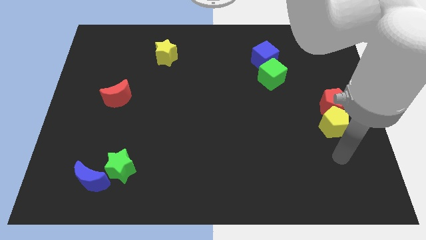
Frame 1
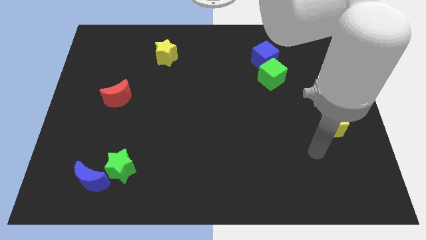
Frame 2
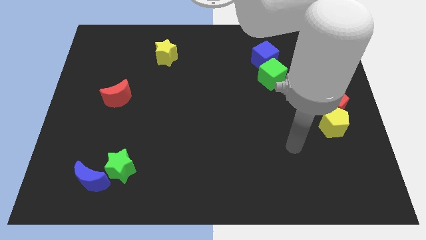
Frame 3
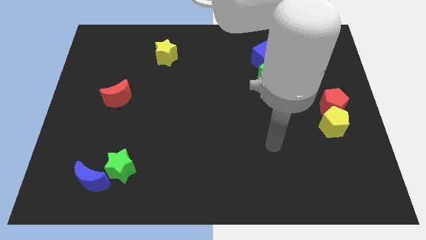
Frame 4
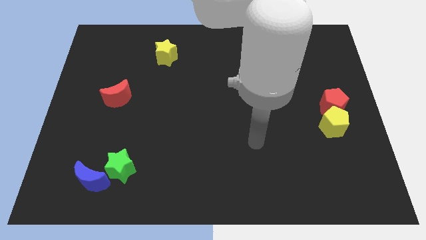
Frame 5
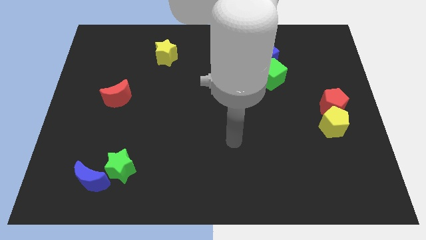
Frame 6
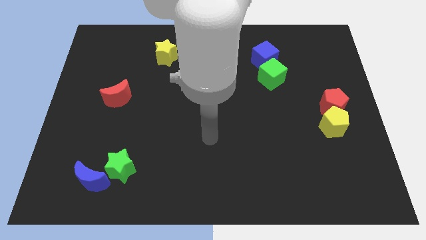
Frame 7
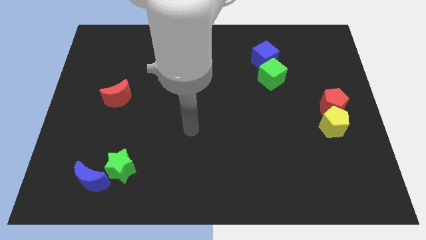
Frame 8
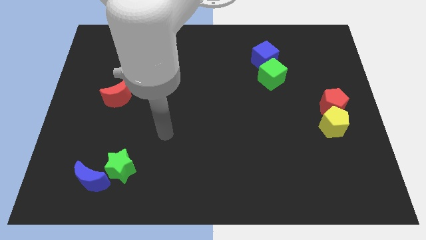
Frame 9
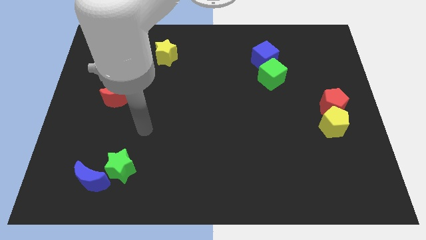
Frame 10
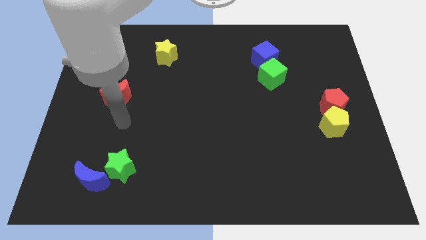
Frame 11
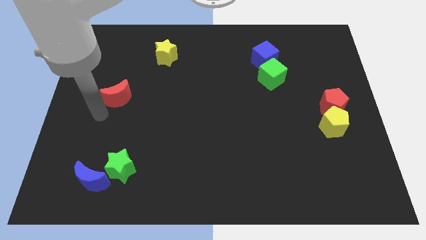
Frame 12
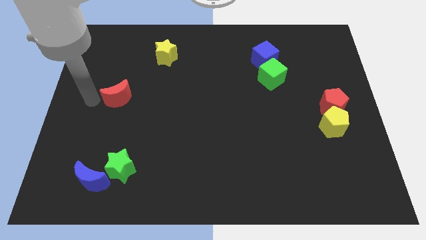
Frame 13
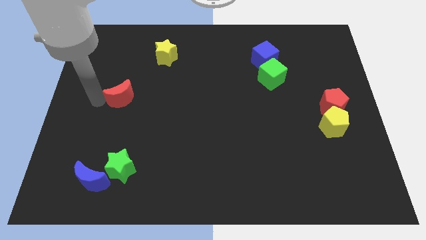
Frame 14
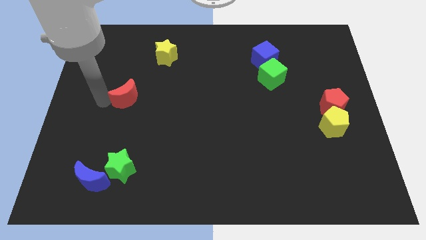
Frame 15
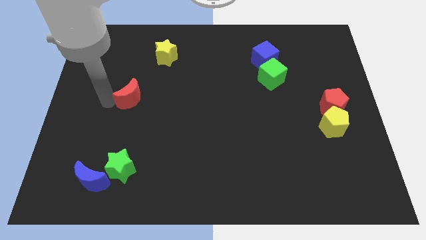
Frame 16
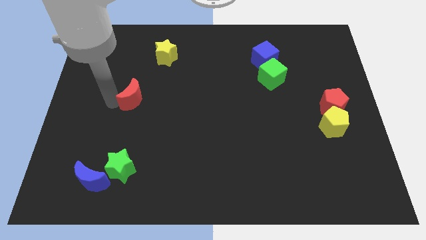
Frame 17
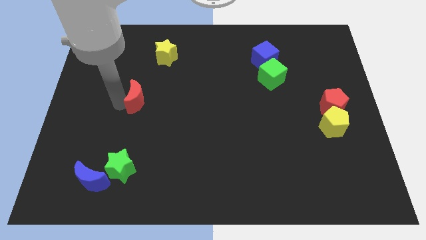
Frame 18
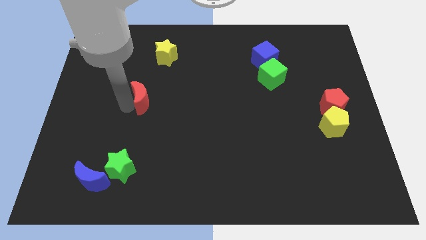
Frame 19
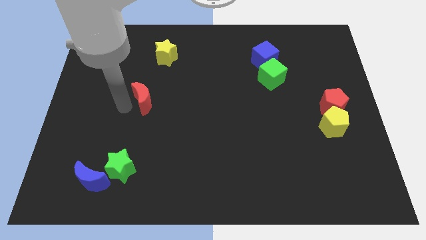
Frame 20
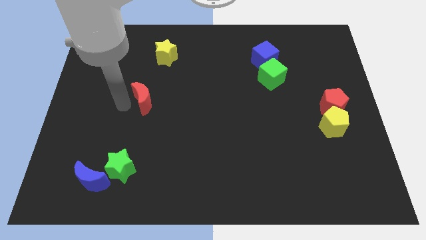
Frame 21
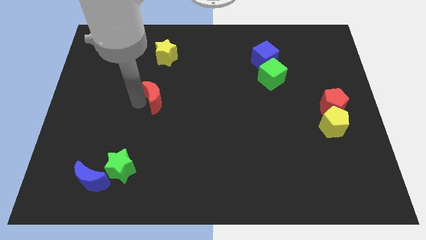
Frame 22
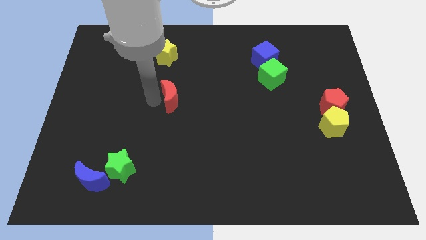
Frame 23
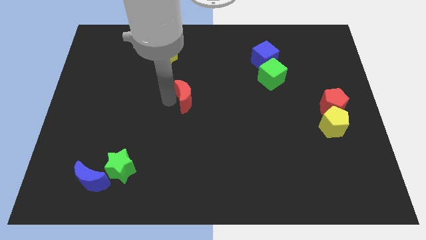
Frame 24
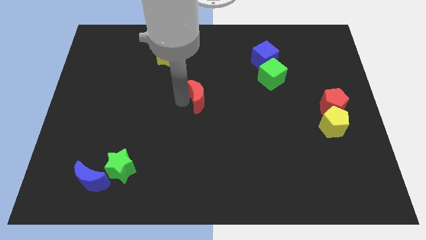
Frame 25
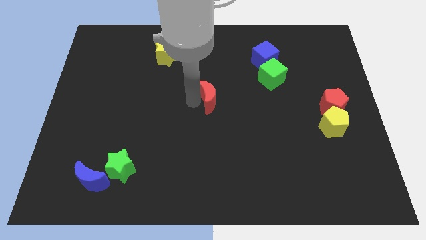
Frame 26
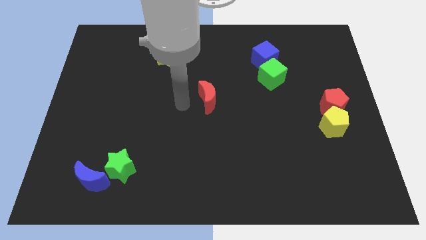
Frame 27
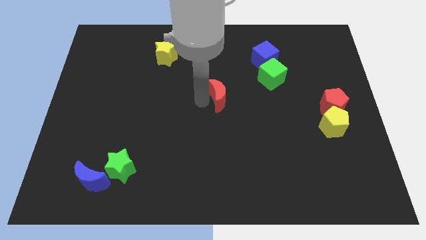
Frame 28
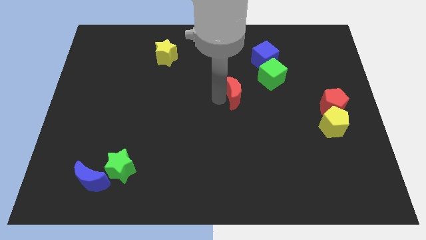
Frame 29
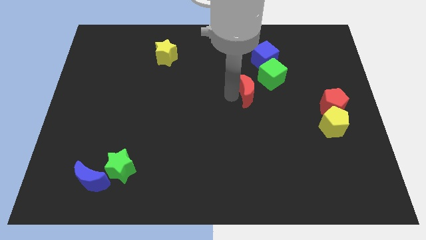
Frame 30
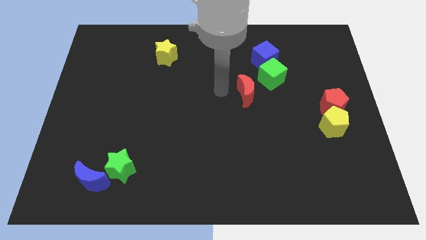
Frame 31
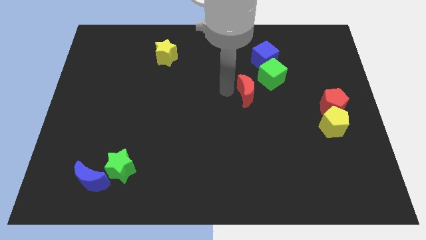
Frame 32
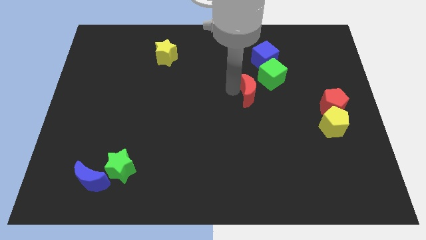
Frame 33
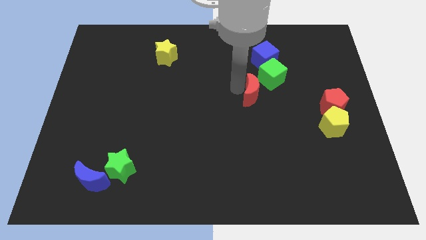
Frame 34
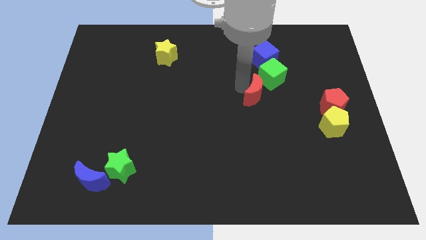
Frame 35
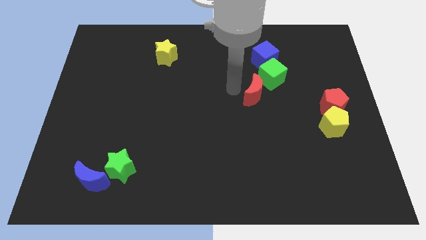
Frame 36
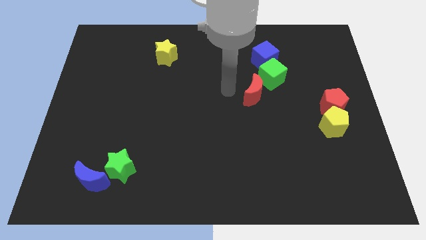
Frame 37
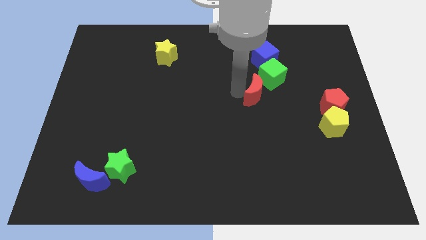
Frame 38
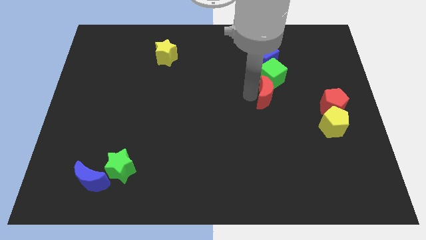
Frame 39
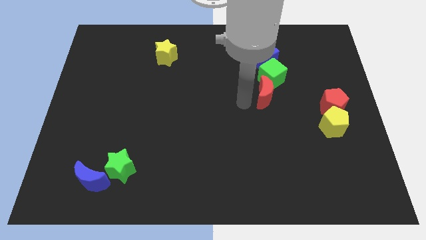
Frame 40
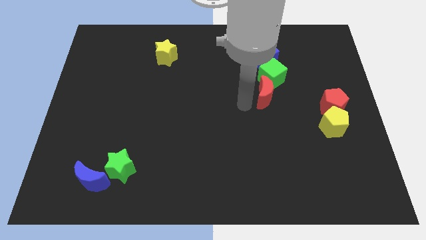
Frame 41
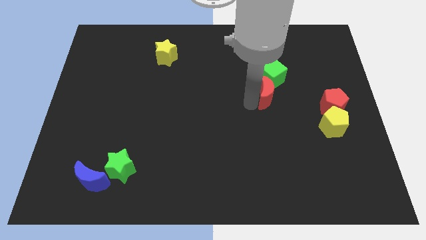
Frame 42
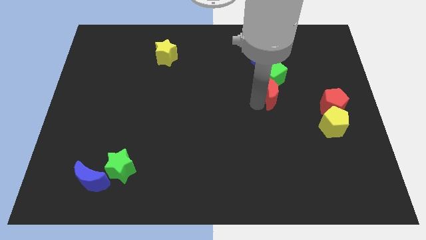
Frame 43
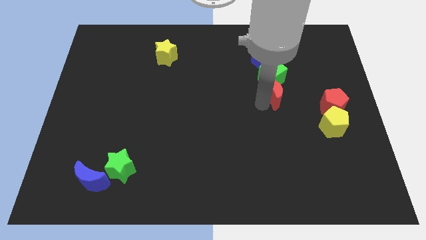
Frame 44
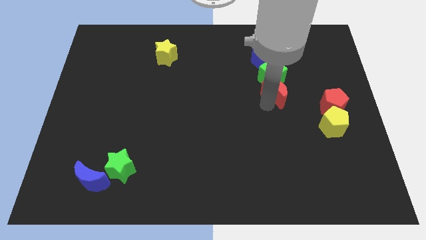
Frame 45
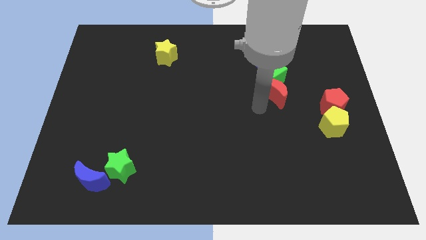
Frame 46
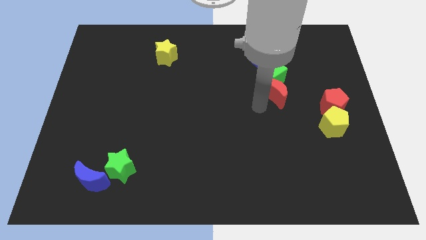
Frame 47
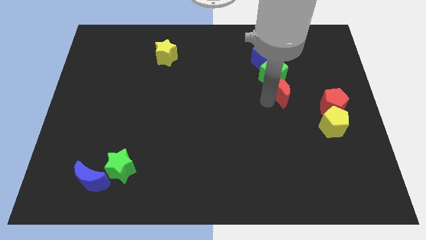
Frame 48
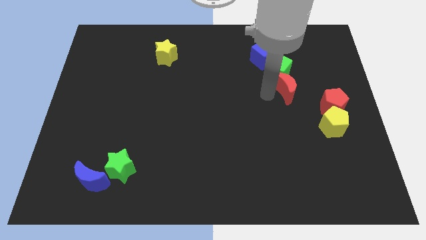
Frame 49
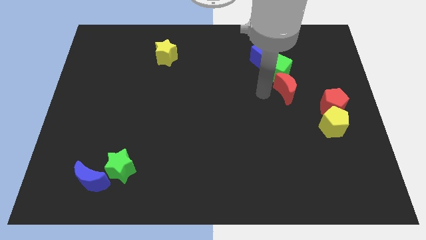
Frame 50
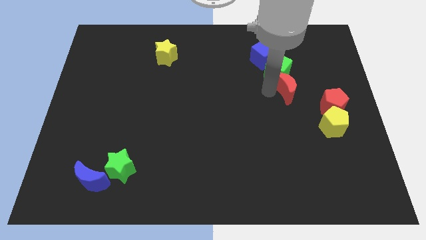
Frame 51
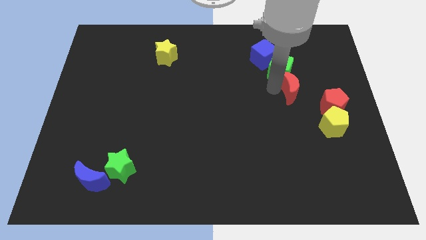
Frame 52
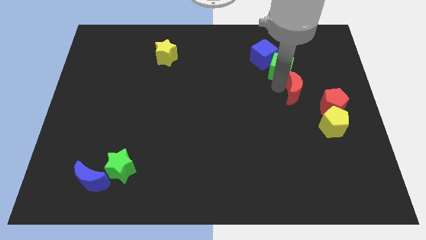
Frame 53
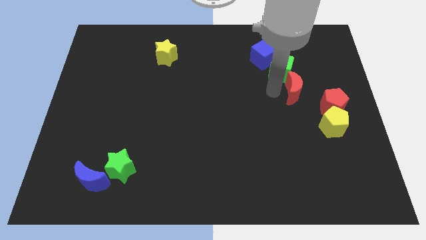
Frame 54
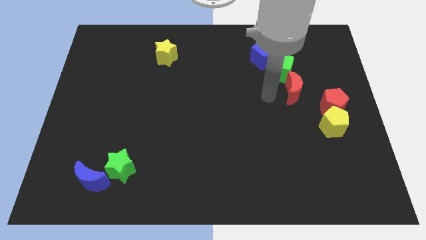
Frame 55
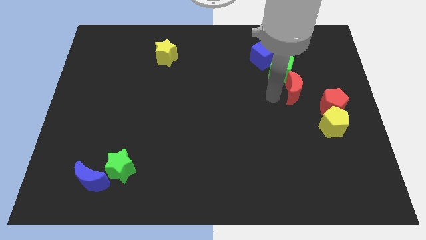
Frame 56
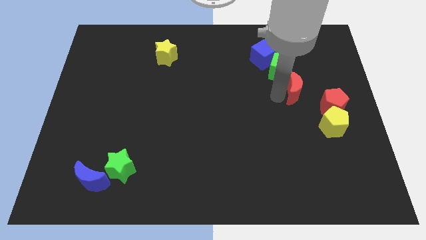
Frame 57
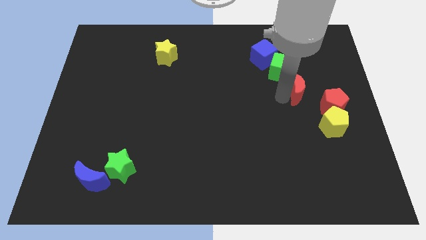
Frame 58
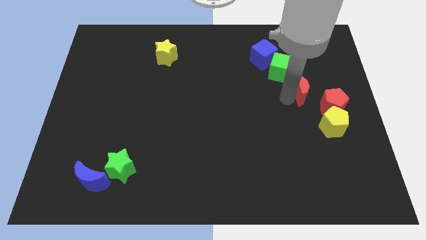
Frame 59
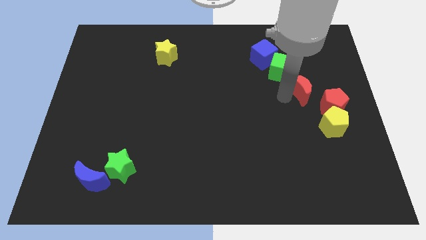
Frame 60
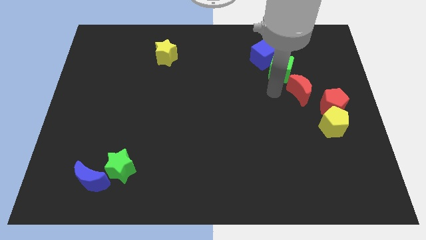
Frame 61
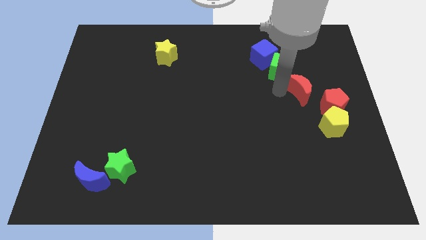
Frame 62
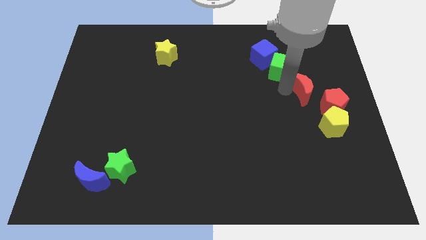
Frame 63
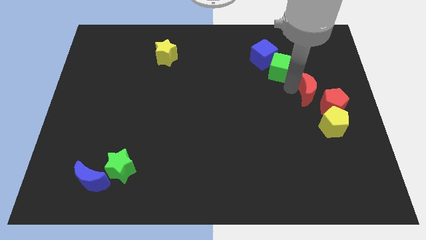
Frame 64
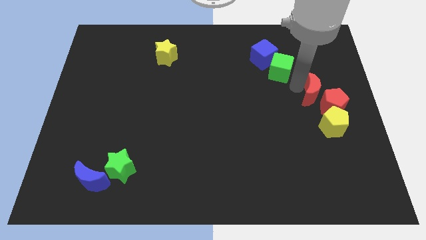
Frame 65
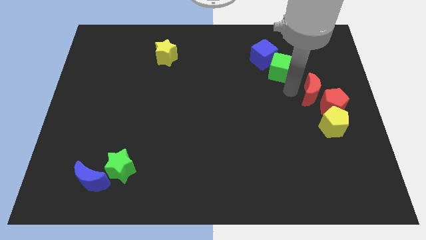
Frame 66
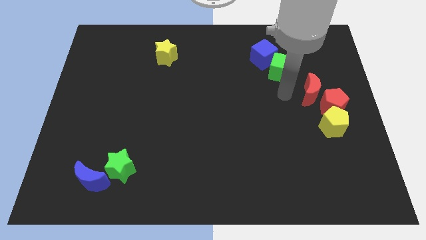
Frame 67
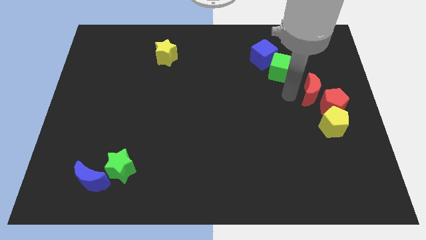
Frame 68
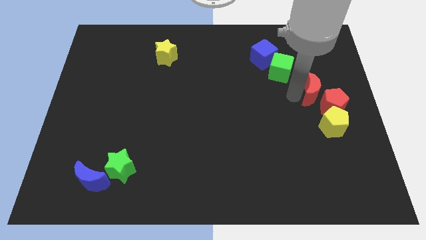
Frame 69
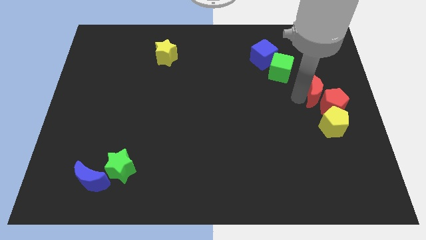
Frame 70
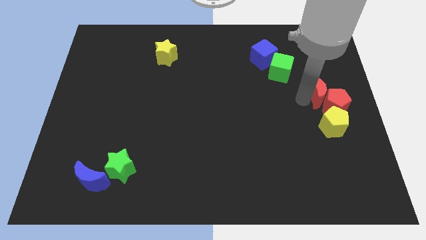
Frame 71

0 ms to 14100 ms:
move the red moon to the right side of the board

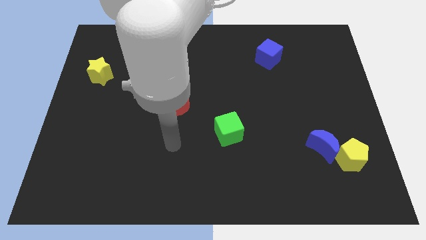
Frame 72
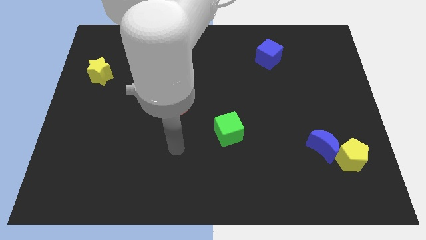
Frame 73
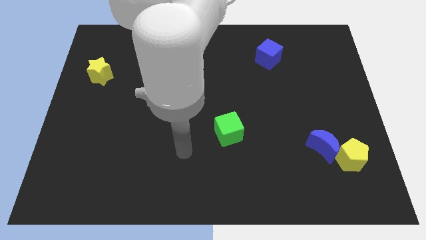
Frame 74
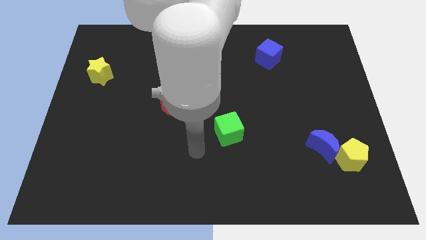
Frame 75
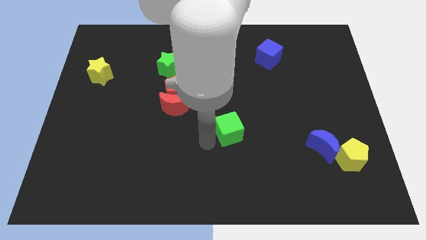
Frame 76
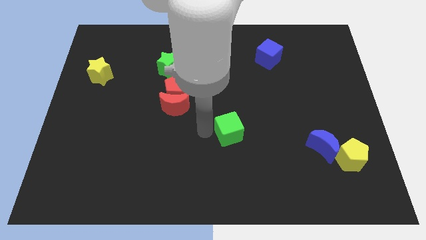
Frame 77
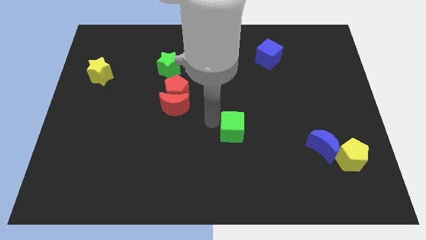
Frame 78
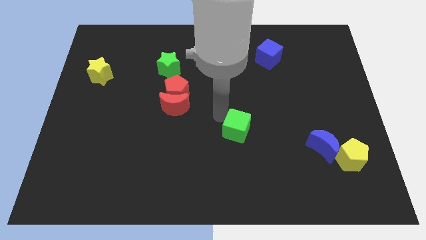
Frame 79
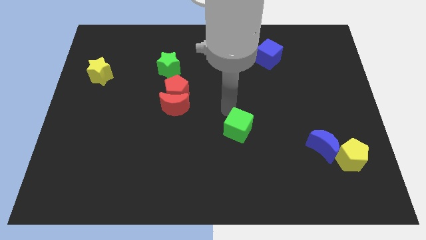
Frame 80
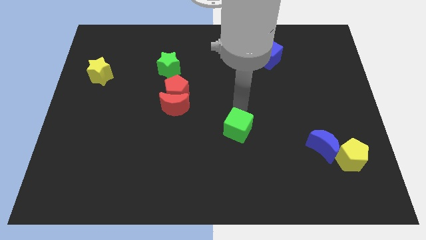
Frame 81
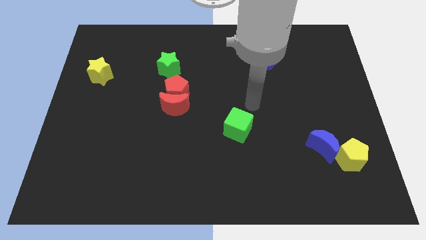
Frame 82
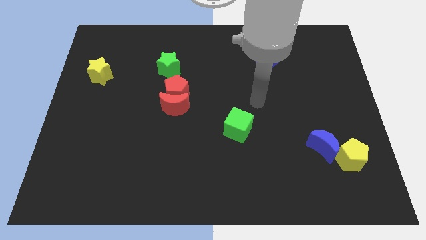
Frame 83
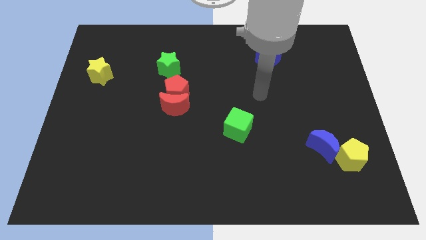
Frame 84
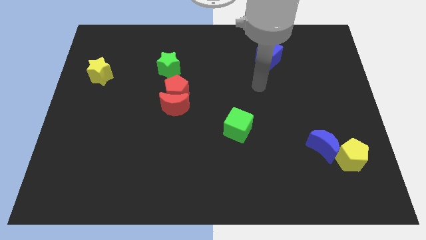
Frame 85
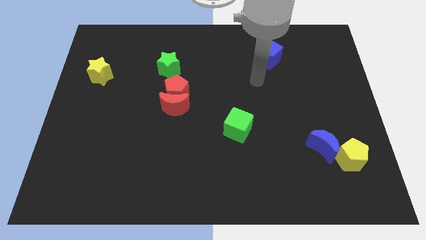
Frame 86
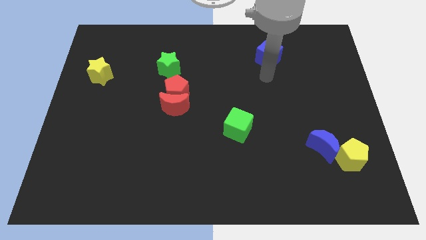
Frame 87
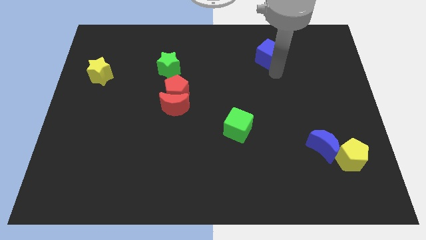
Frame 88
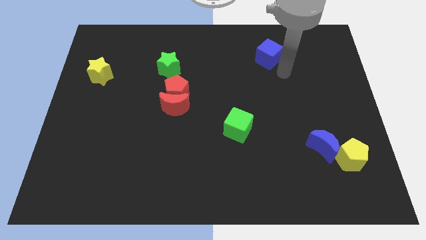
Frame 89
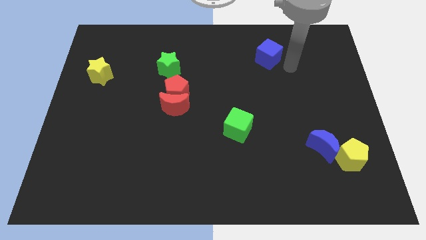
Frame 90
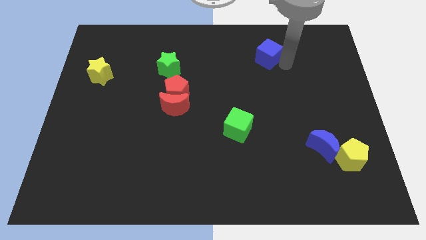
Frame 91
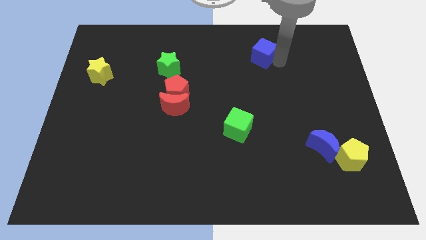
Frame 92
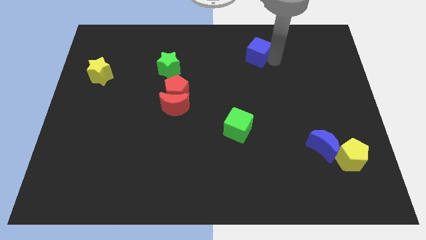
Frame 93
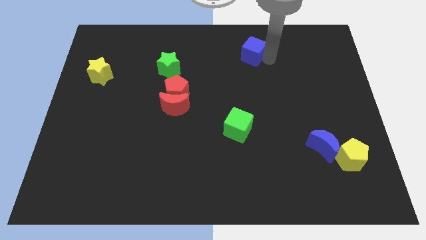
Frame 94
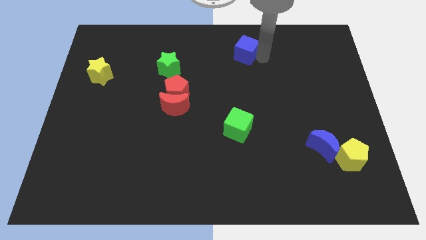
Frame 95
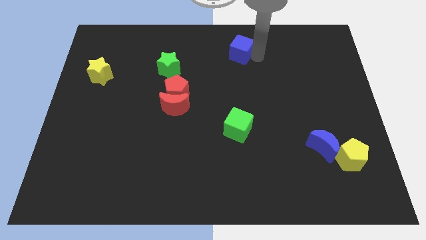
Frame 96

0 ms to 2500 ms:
slide the blue cube to the towards your base
